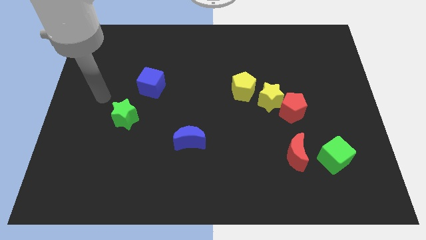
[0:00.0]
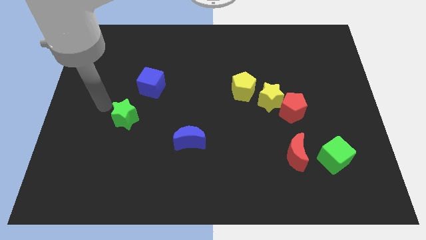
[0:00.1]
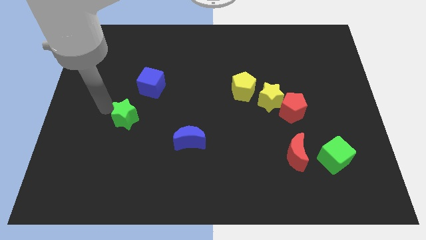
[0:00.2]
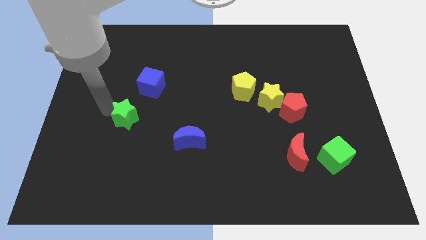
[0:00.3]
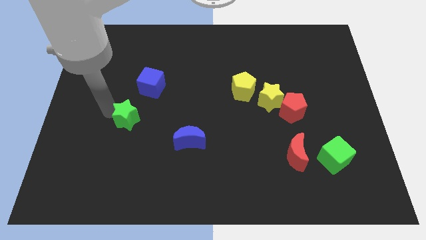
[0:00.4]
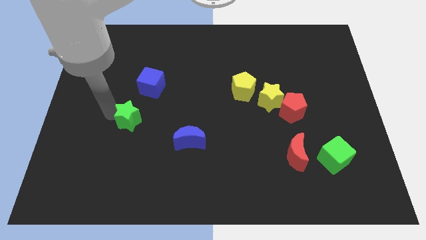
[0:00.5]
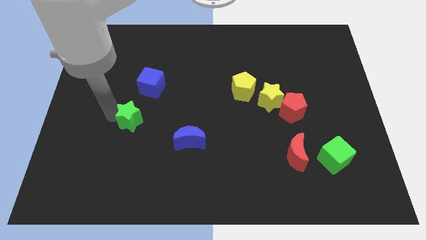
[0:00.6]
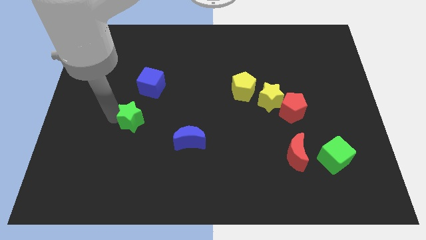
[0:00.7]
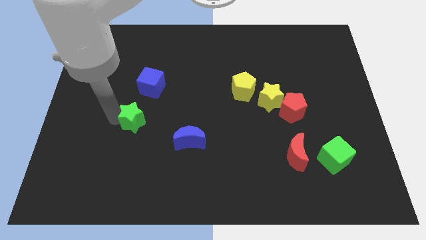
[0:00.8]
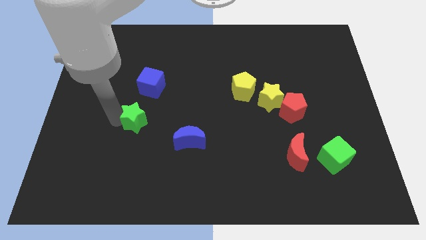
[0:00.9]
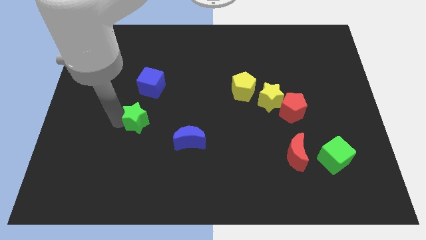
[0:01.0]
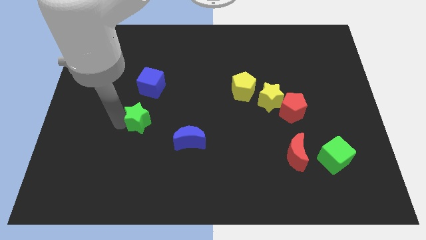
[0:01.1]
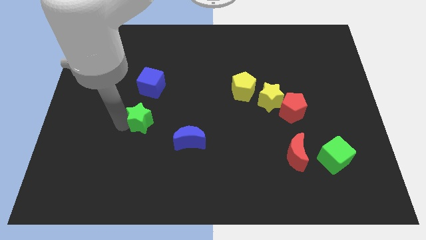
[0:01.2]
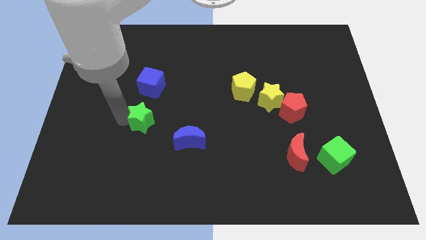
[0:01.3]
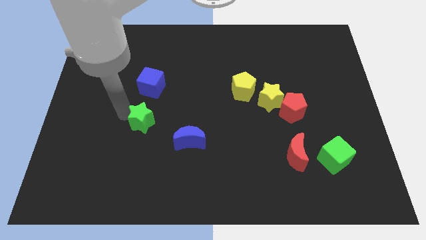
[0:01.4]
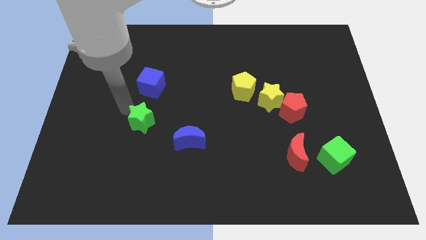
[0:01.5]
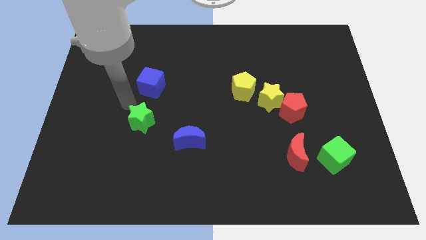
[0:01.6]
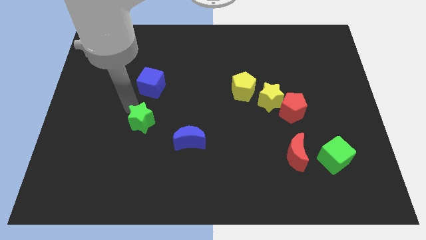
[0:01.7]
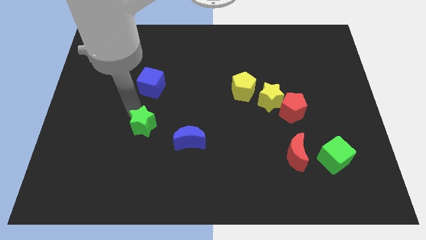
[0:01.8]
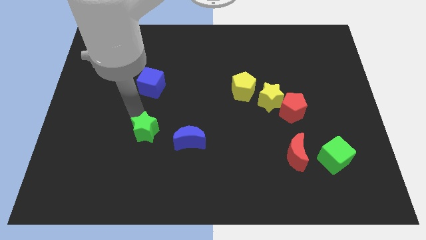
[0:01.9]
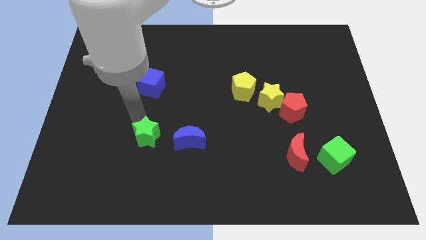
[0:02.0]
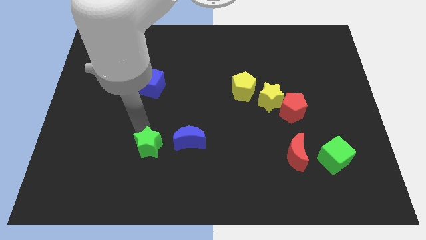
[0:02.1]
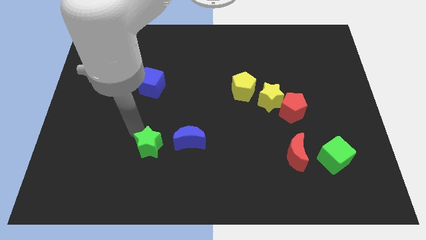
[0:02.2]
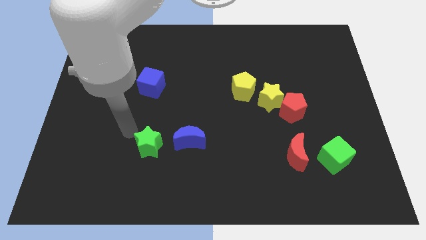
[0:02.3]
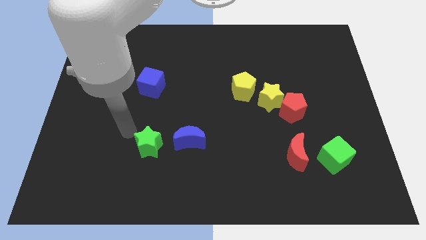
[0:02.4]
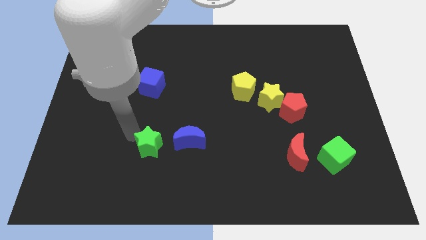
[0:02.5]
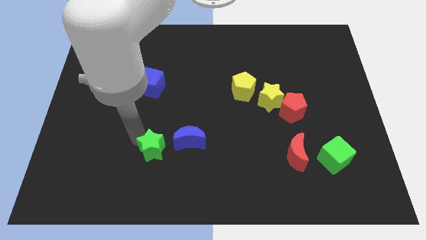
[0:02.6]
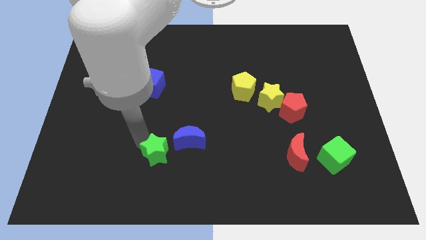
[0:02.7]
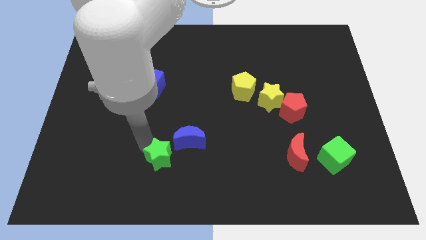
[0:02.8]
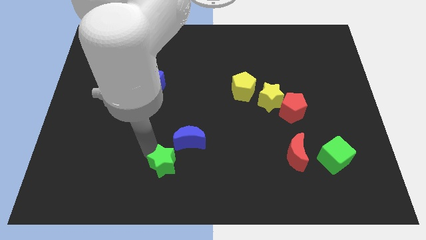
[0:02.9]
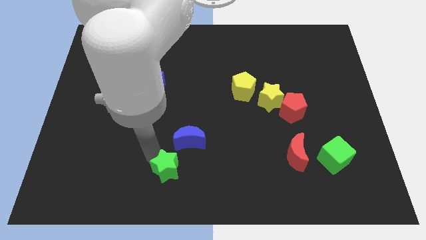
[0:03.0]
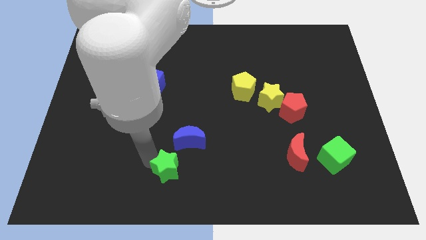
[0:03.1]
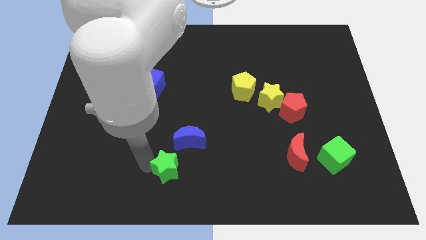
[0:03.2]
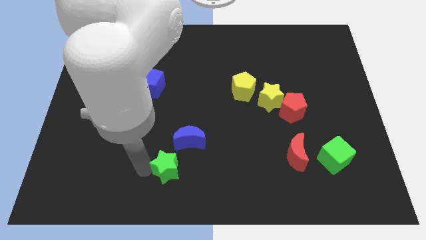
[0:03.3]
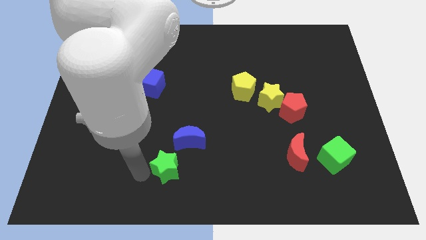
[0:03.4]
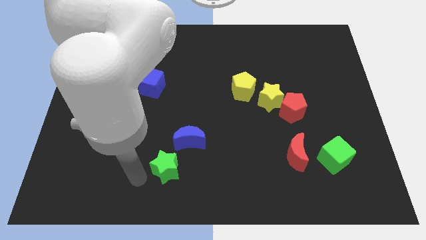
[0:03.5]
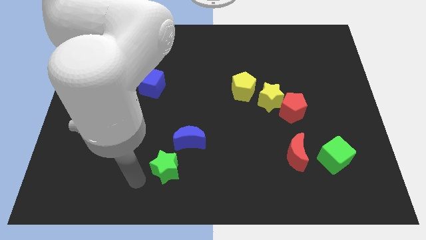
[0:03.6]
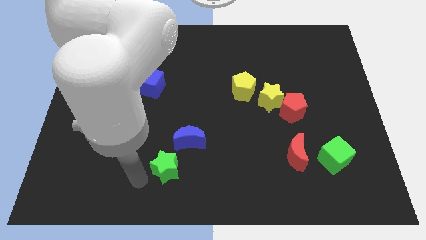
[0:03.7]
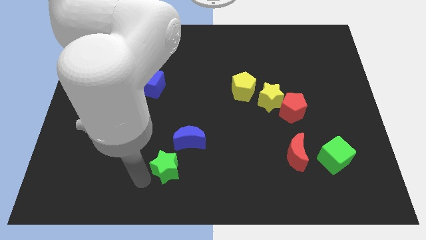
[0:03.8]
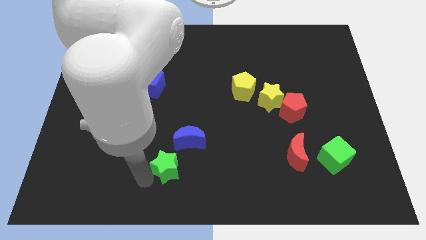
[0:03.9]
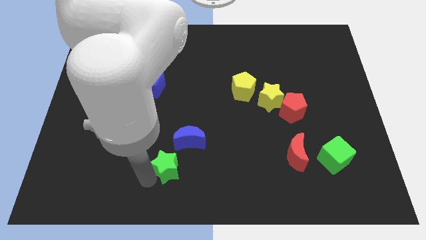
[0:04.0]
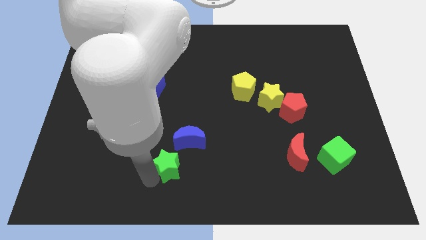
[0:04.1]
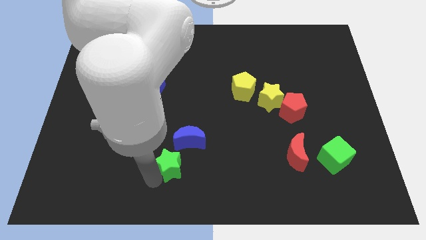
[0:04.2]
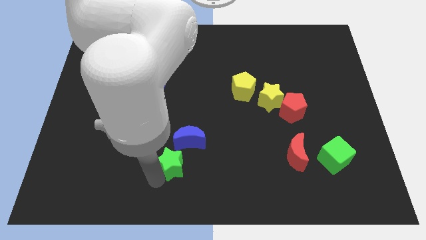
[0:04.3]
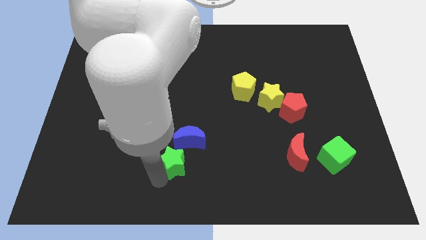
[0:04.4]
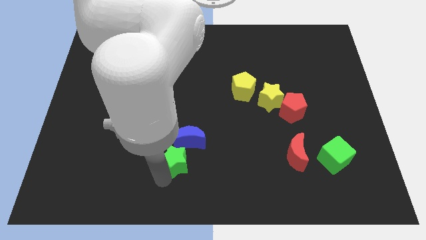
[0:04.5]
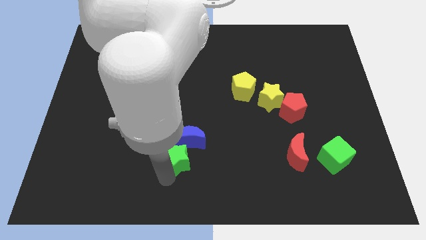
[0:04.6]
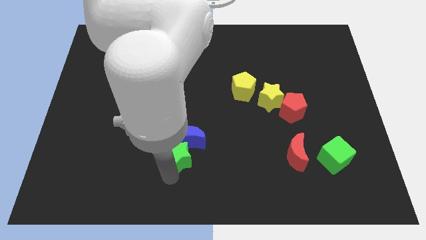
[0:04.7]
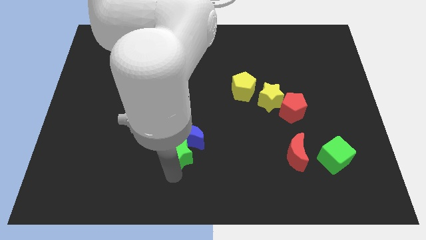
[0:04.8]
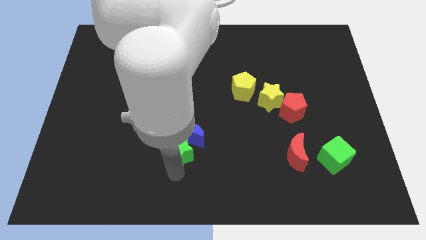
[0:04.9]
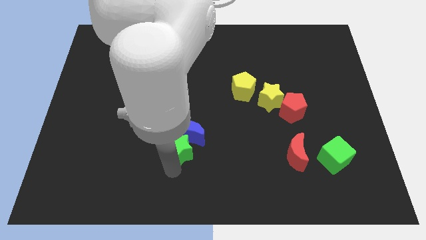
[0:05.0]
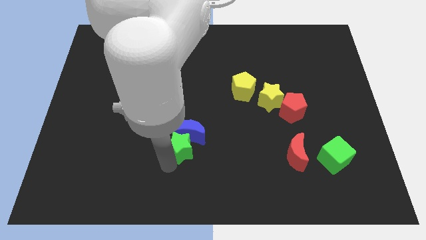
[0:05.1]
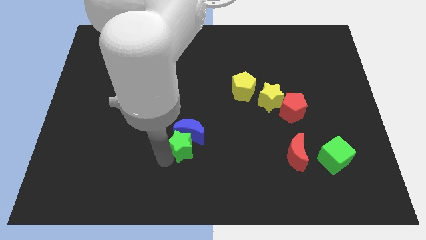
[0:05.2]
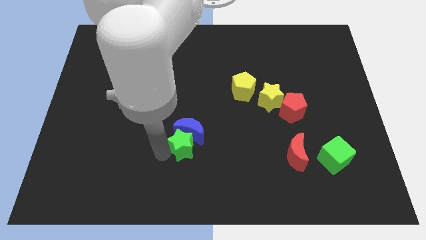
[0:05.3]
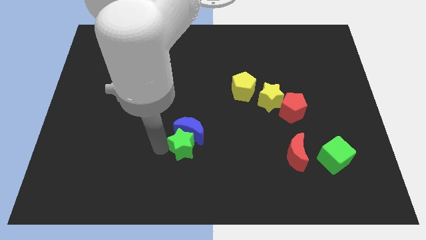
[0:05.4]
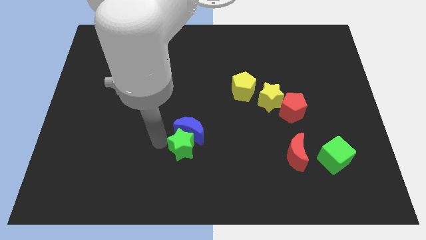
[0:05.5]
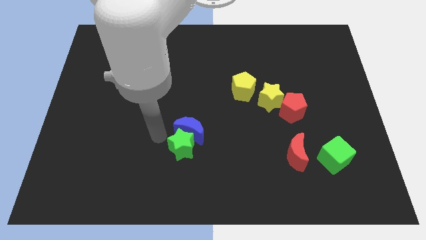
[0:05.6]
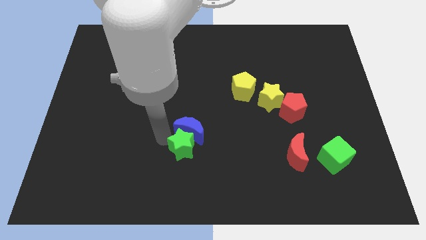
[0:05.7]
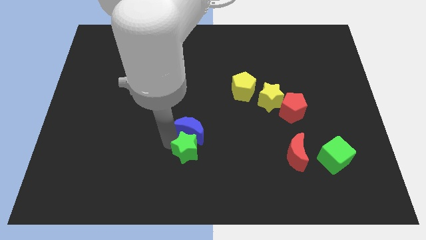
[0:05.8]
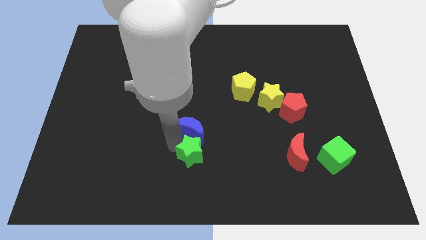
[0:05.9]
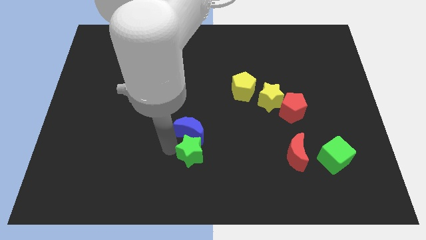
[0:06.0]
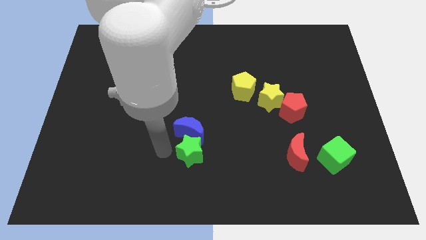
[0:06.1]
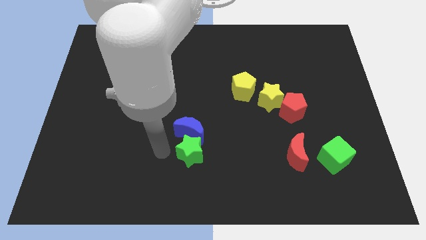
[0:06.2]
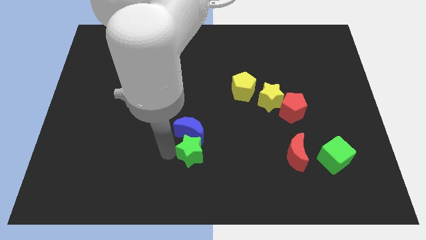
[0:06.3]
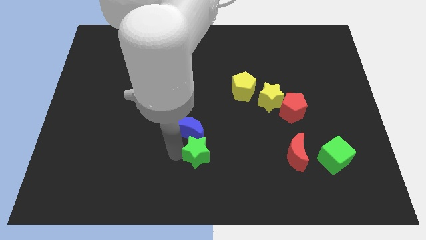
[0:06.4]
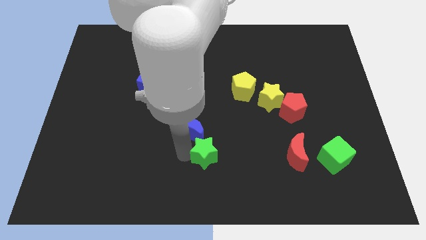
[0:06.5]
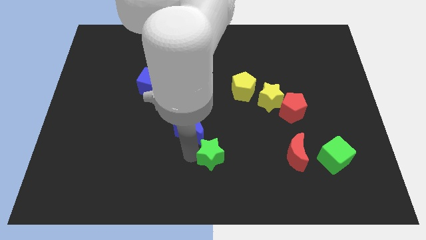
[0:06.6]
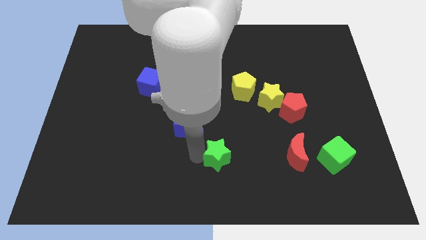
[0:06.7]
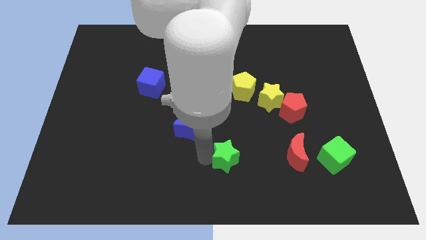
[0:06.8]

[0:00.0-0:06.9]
put the green star to the left of the red moon
